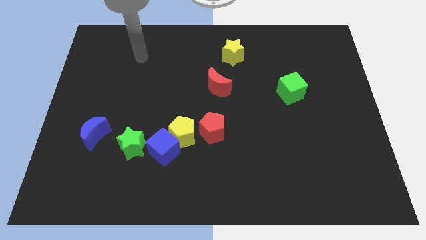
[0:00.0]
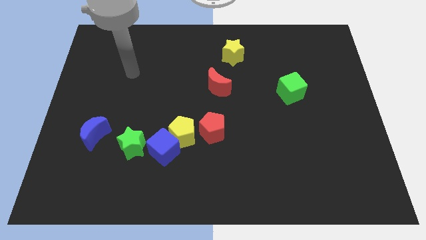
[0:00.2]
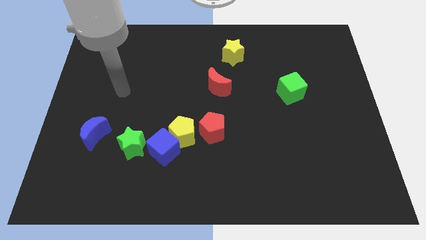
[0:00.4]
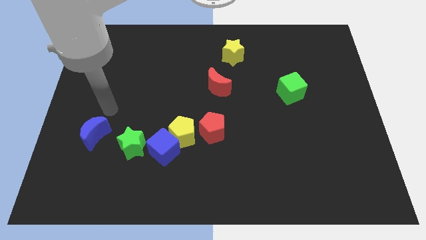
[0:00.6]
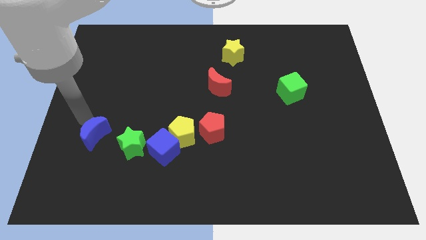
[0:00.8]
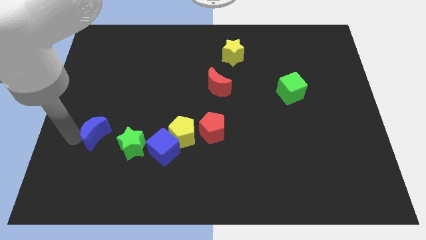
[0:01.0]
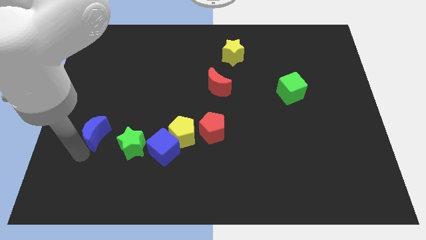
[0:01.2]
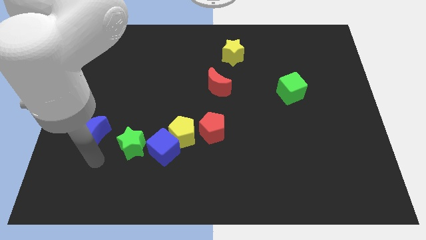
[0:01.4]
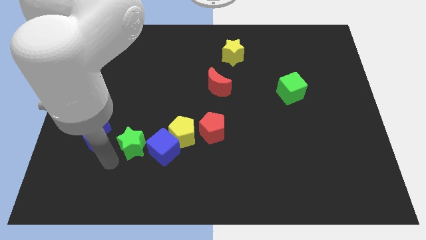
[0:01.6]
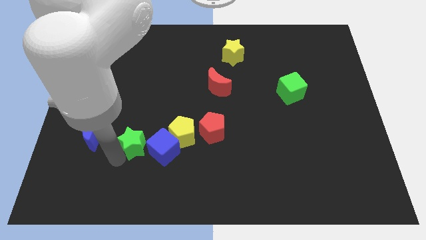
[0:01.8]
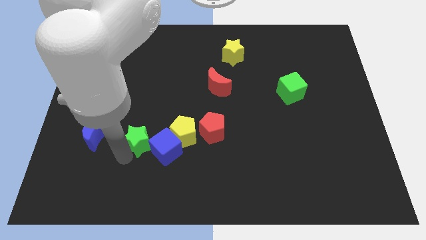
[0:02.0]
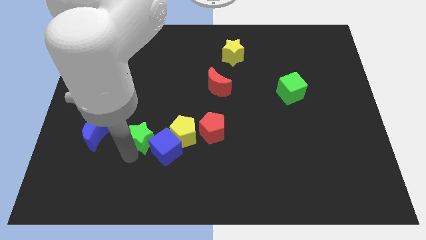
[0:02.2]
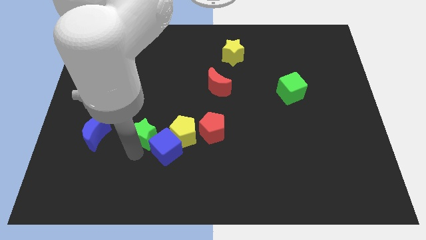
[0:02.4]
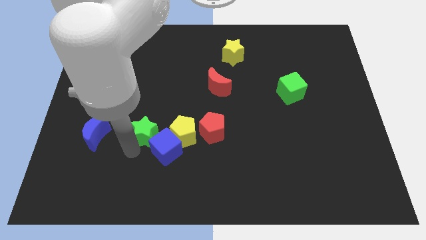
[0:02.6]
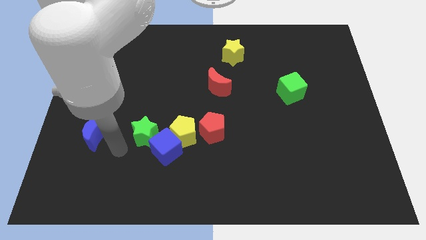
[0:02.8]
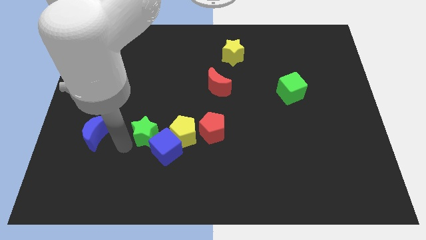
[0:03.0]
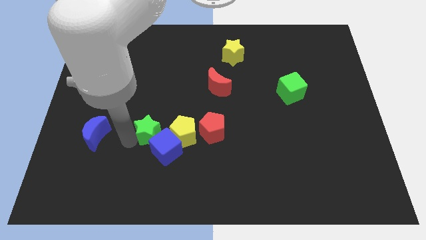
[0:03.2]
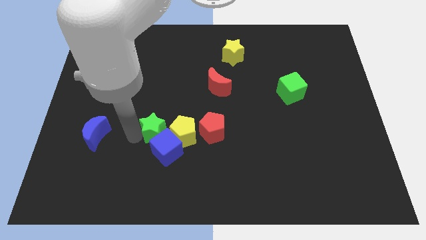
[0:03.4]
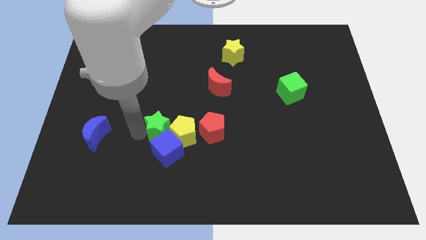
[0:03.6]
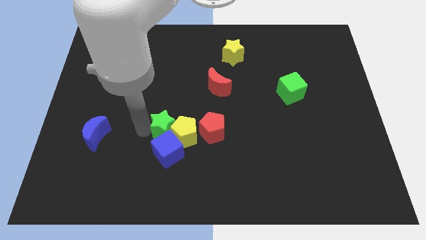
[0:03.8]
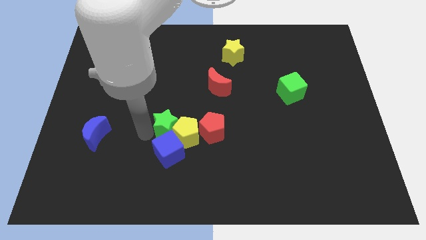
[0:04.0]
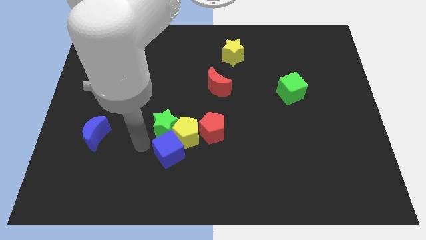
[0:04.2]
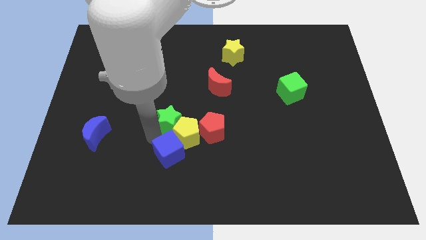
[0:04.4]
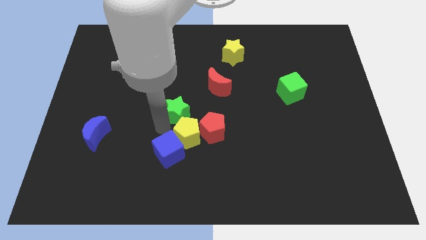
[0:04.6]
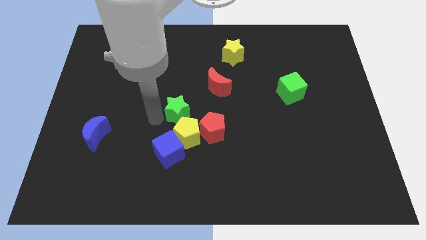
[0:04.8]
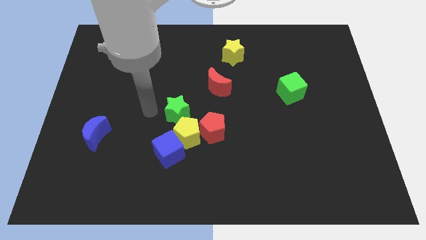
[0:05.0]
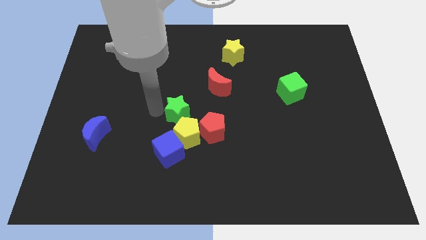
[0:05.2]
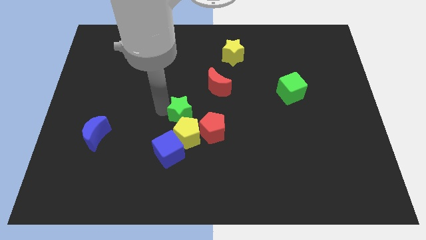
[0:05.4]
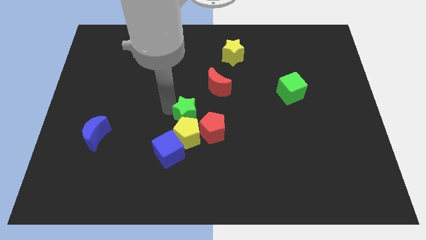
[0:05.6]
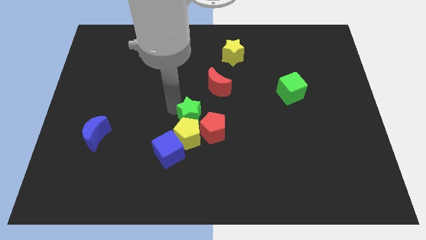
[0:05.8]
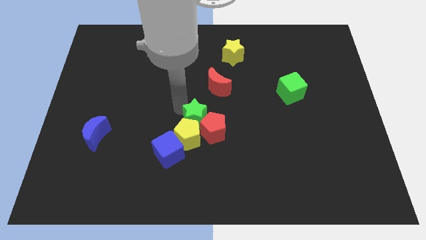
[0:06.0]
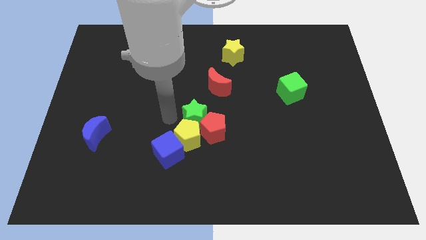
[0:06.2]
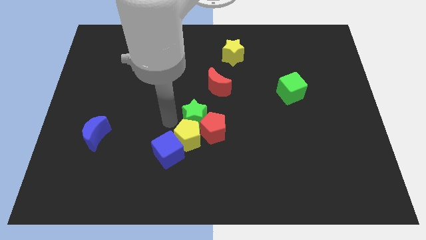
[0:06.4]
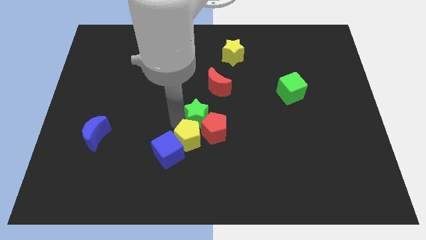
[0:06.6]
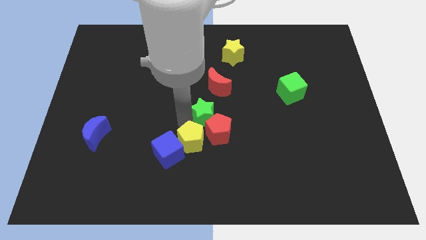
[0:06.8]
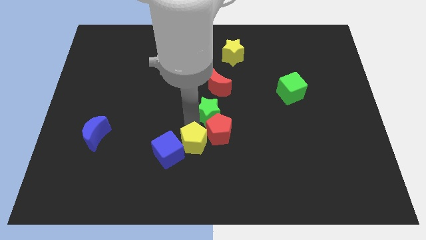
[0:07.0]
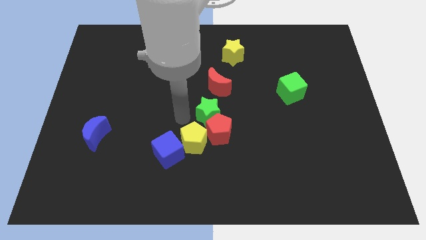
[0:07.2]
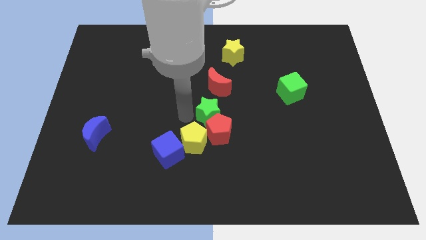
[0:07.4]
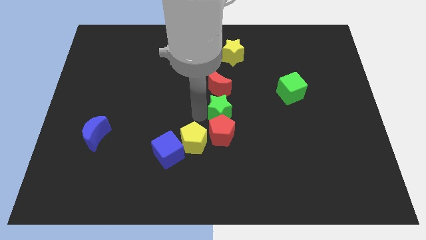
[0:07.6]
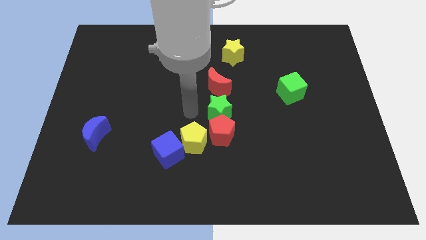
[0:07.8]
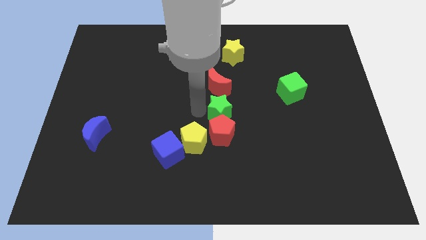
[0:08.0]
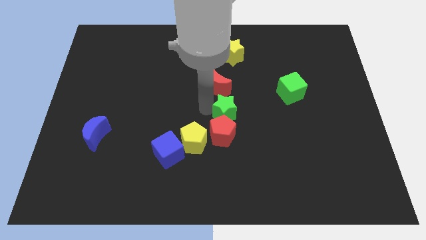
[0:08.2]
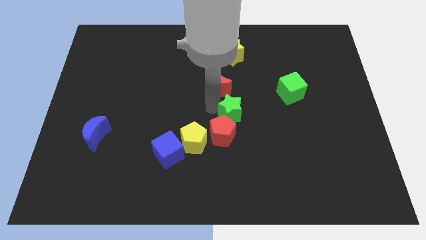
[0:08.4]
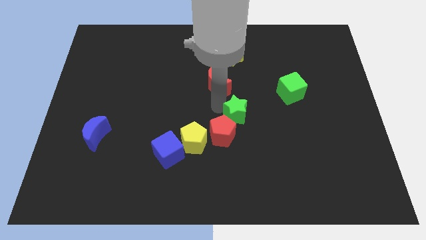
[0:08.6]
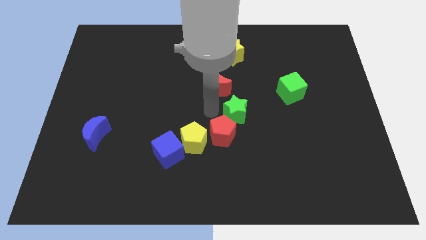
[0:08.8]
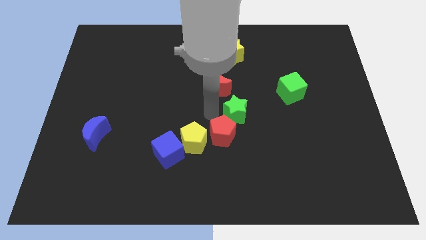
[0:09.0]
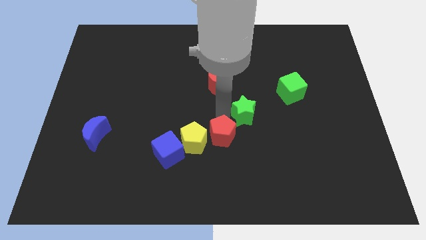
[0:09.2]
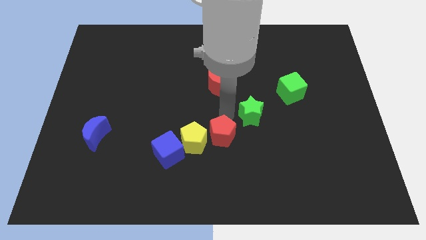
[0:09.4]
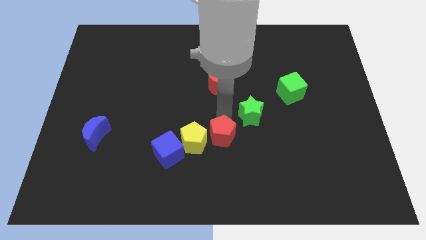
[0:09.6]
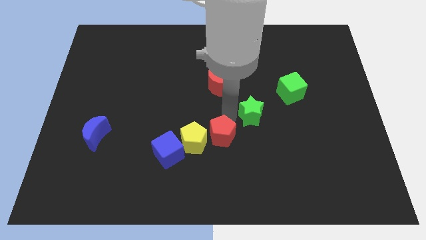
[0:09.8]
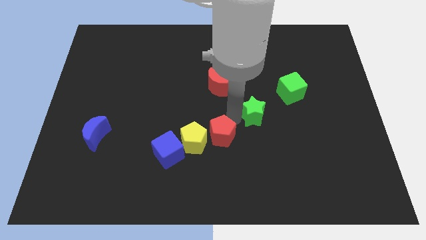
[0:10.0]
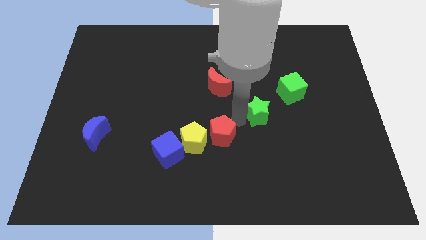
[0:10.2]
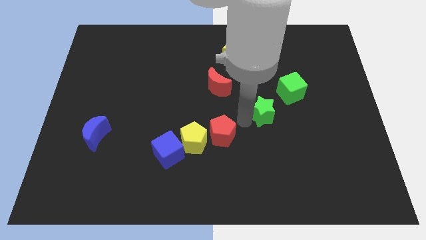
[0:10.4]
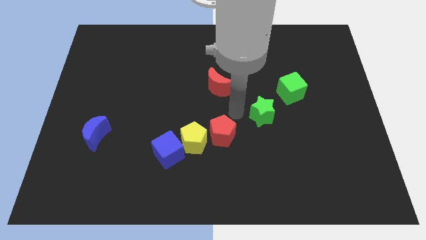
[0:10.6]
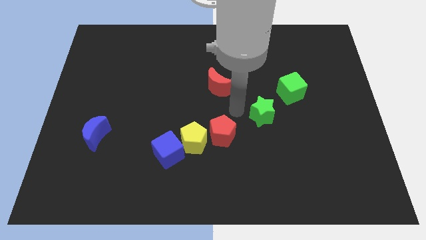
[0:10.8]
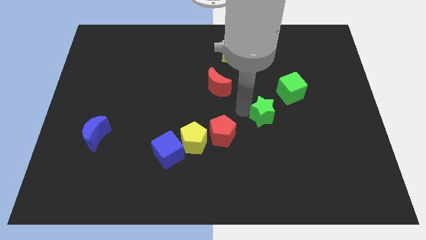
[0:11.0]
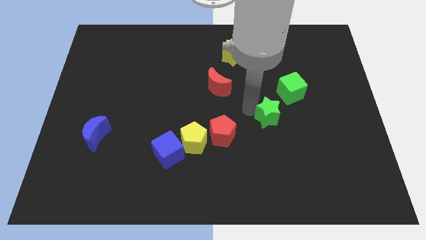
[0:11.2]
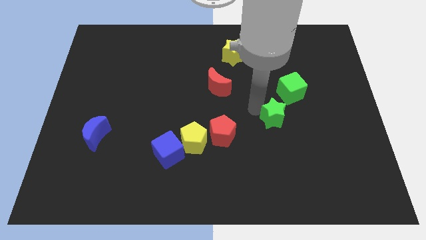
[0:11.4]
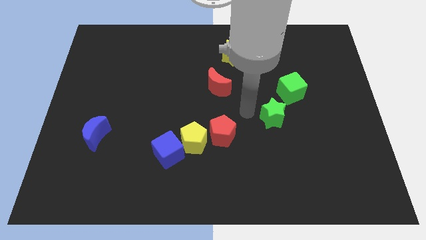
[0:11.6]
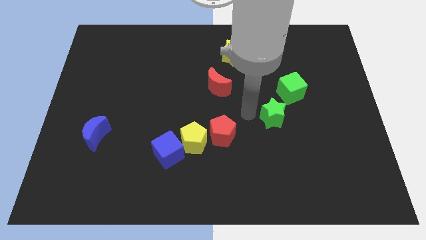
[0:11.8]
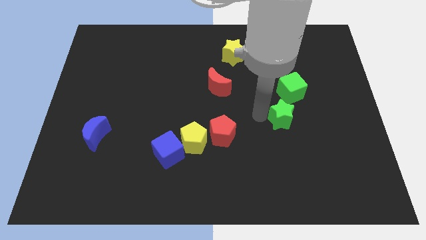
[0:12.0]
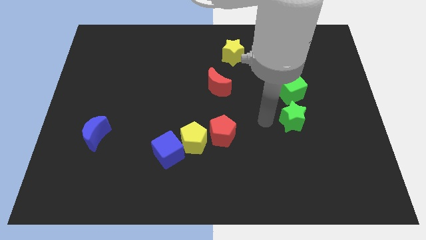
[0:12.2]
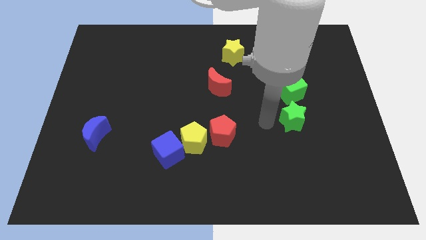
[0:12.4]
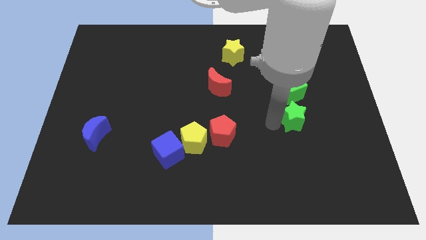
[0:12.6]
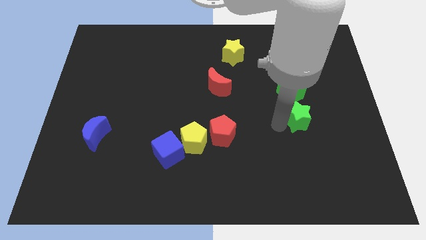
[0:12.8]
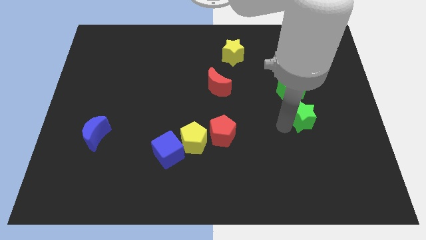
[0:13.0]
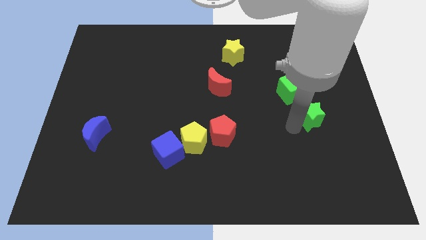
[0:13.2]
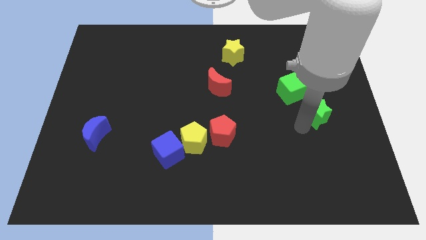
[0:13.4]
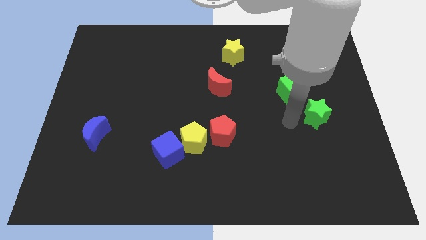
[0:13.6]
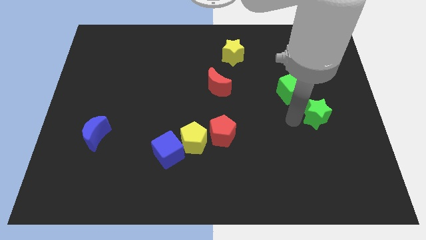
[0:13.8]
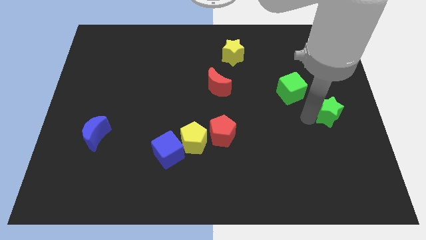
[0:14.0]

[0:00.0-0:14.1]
put the green star to the center right
